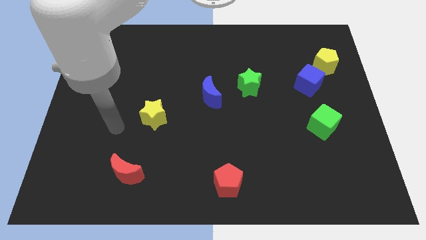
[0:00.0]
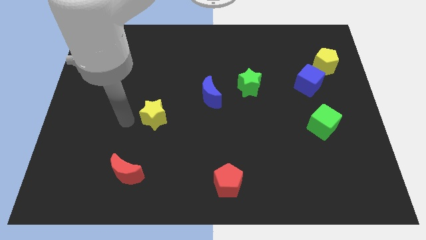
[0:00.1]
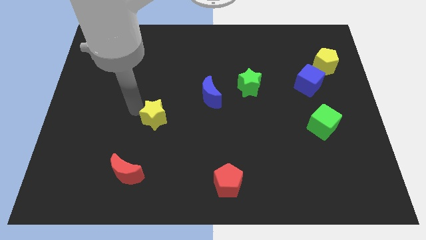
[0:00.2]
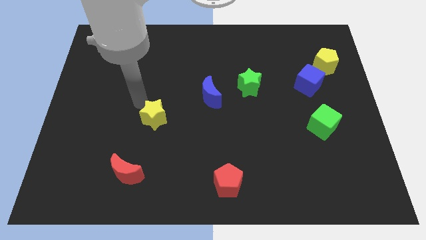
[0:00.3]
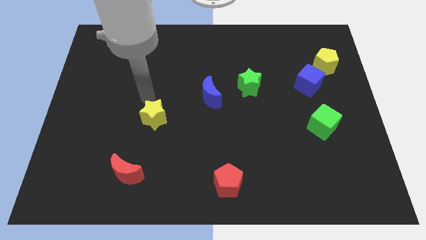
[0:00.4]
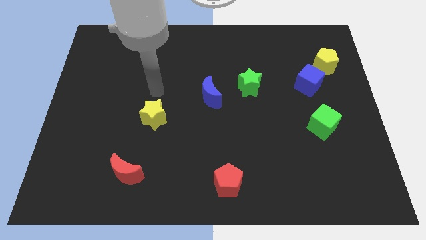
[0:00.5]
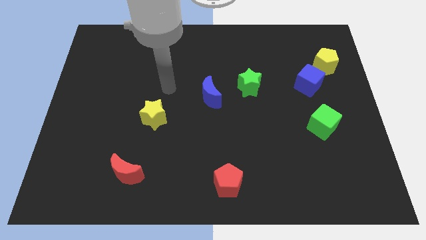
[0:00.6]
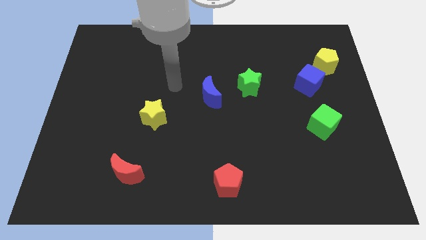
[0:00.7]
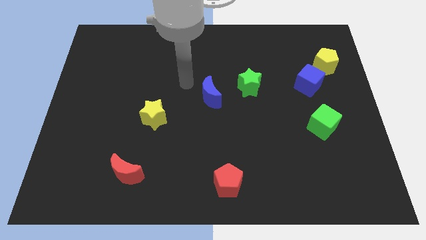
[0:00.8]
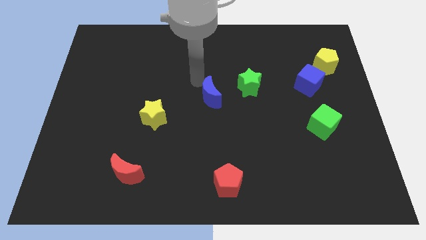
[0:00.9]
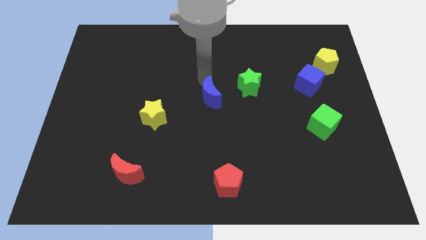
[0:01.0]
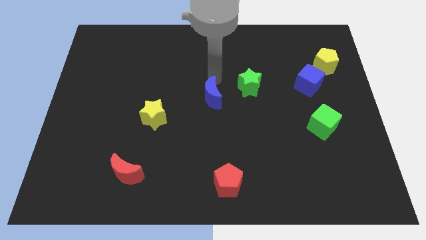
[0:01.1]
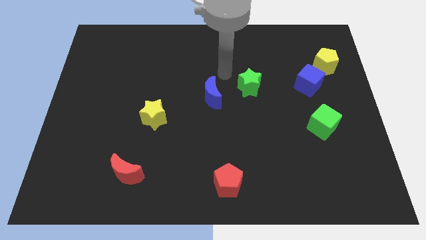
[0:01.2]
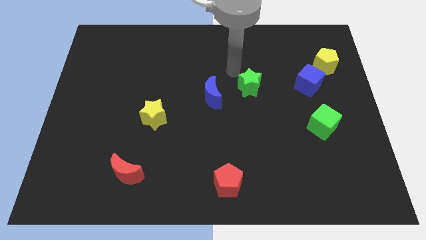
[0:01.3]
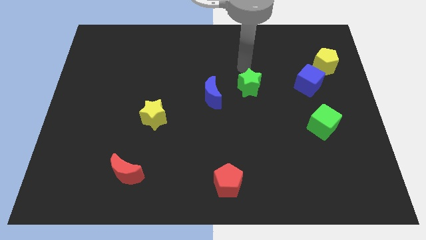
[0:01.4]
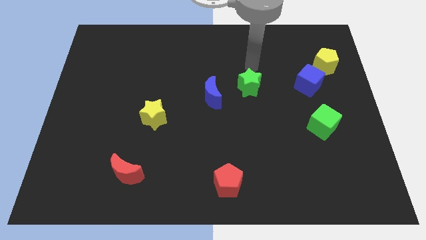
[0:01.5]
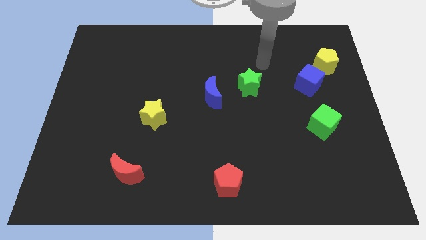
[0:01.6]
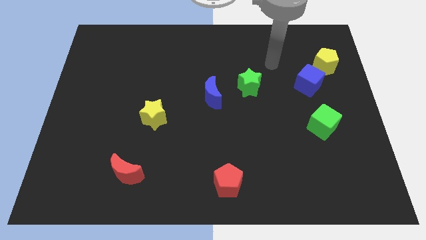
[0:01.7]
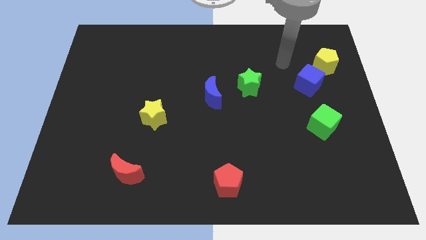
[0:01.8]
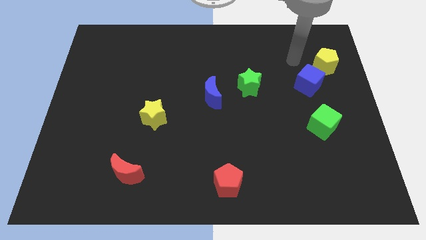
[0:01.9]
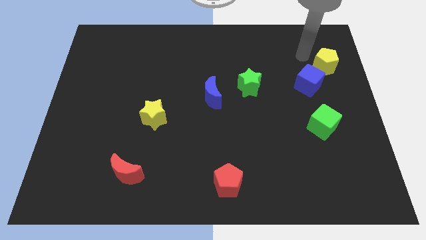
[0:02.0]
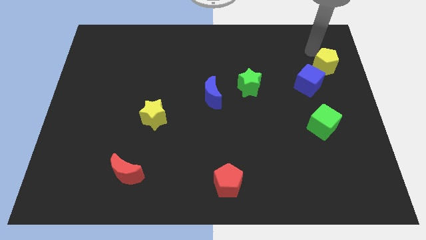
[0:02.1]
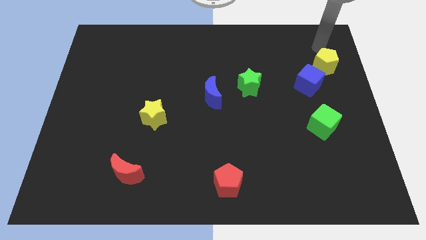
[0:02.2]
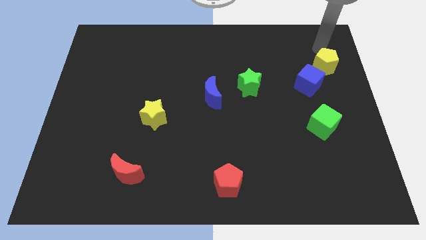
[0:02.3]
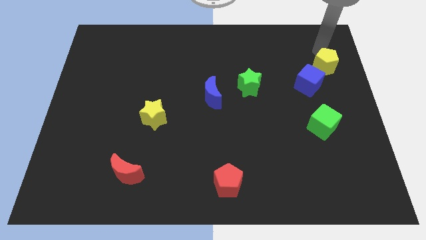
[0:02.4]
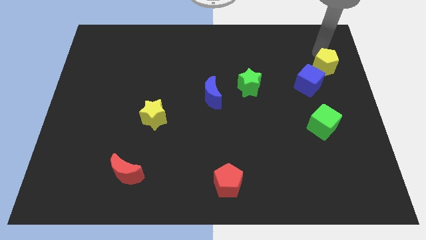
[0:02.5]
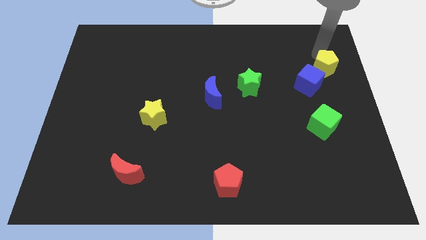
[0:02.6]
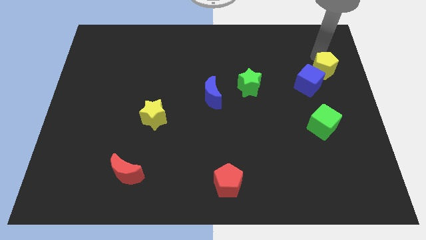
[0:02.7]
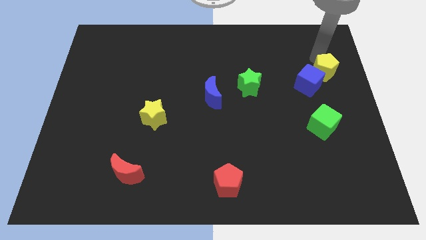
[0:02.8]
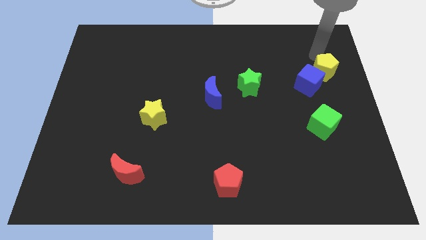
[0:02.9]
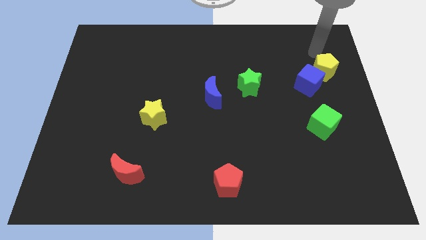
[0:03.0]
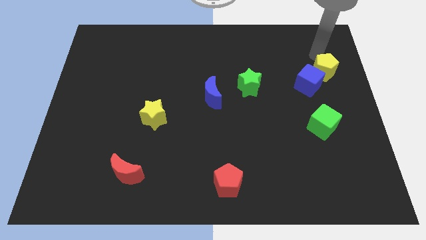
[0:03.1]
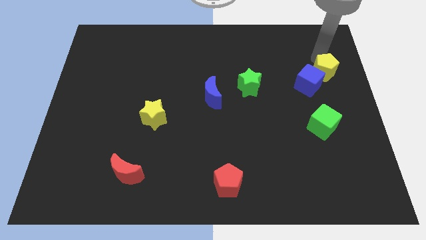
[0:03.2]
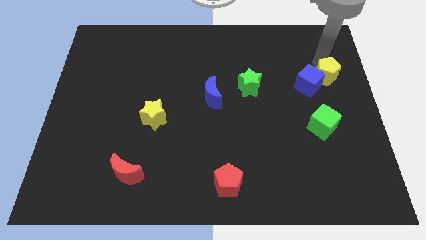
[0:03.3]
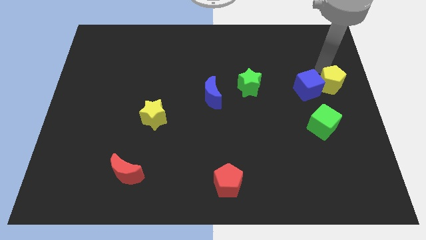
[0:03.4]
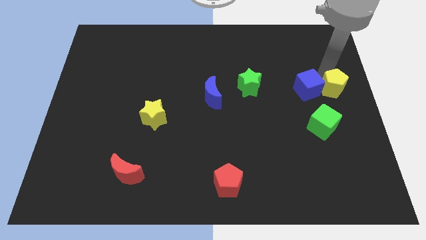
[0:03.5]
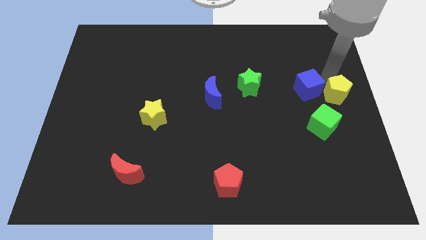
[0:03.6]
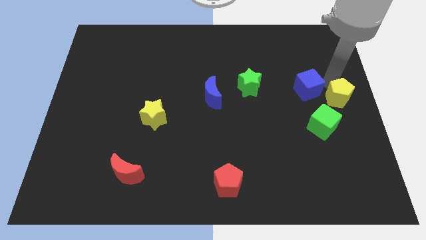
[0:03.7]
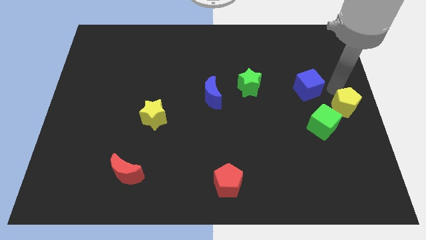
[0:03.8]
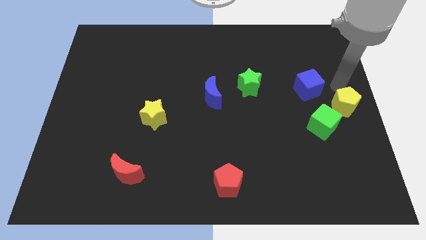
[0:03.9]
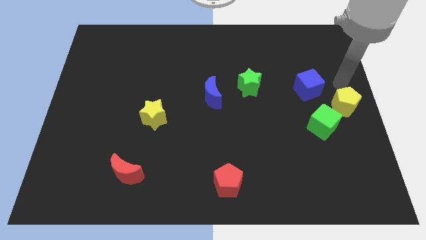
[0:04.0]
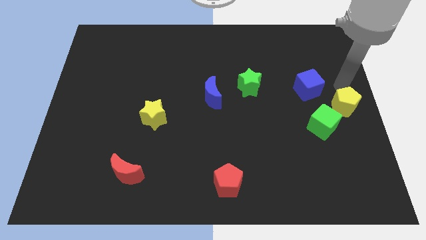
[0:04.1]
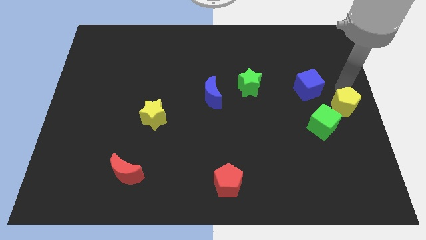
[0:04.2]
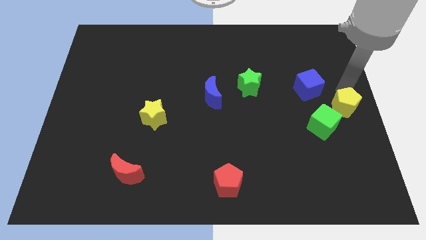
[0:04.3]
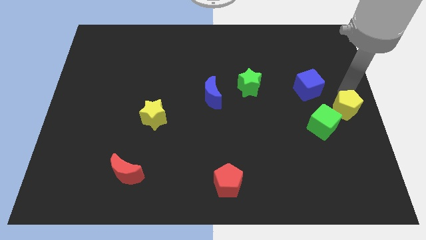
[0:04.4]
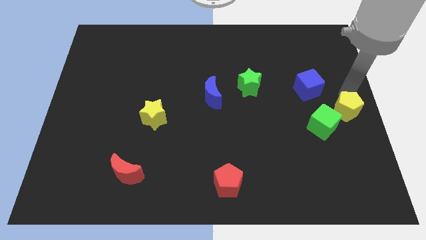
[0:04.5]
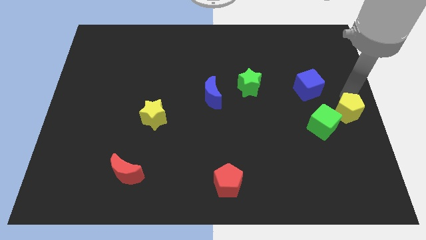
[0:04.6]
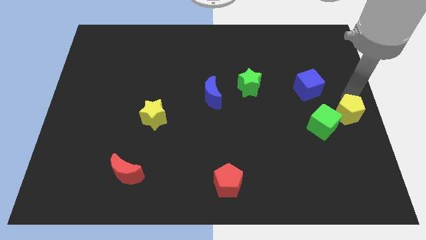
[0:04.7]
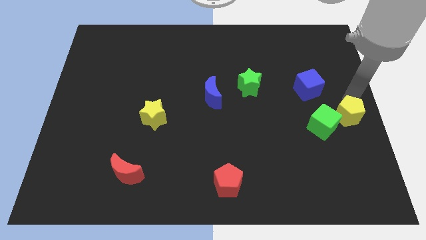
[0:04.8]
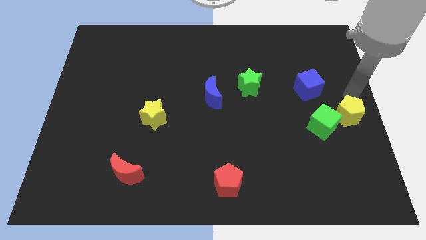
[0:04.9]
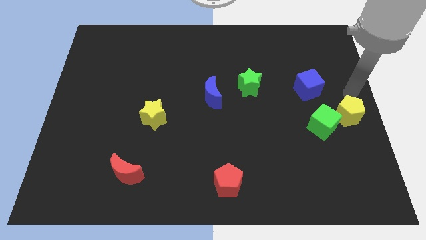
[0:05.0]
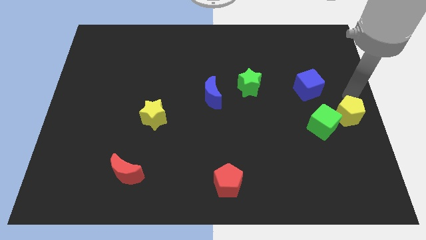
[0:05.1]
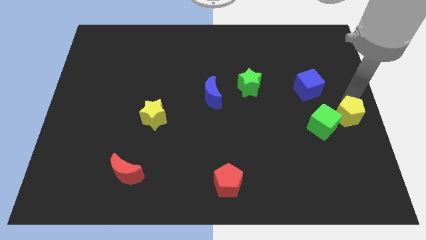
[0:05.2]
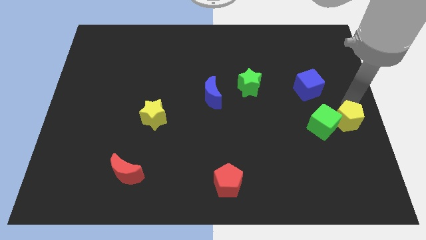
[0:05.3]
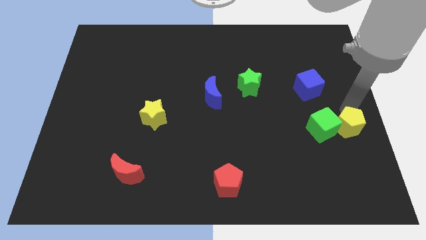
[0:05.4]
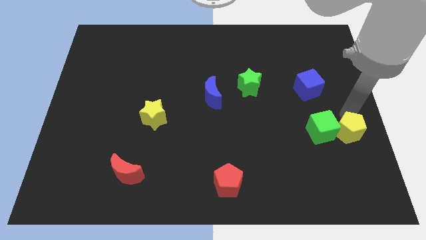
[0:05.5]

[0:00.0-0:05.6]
push the yellow pentagon downwards

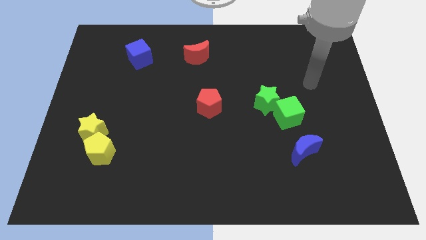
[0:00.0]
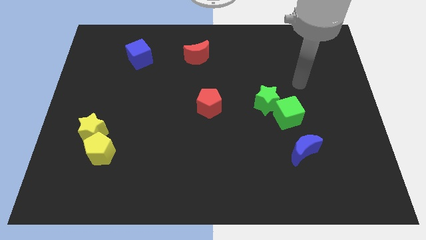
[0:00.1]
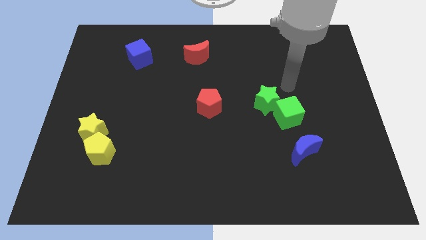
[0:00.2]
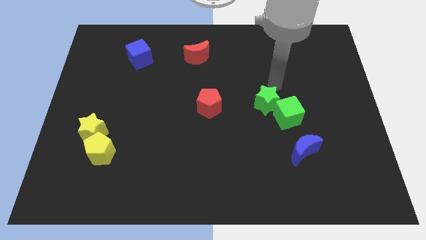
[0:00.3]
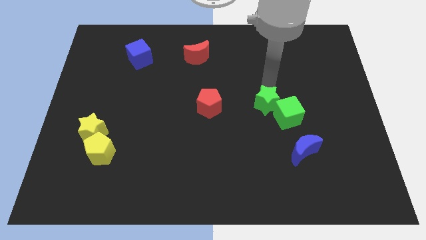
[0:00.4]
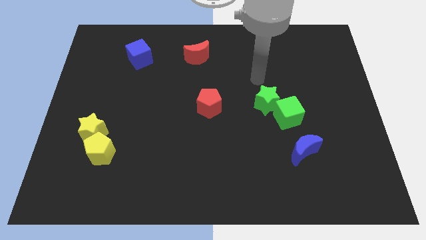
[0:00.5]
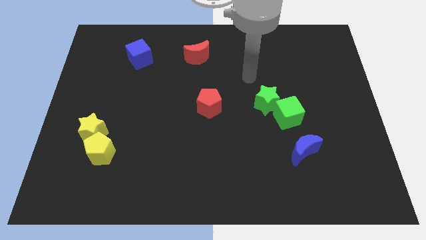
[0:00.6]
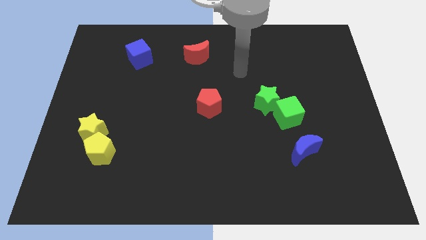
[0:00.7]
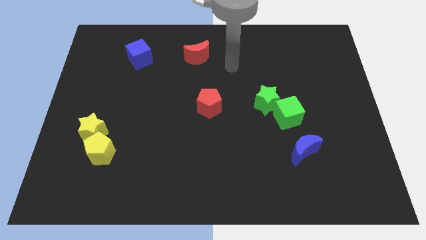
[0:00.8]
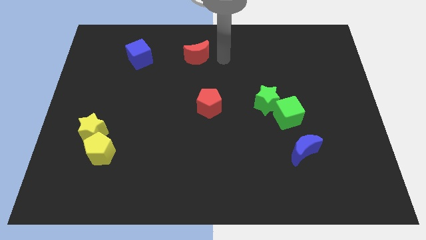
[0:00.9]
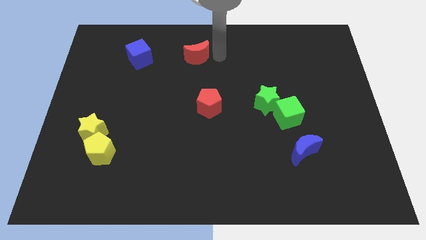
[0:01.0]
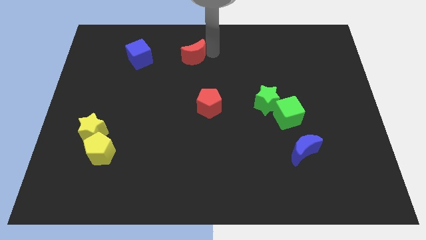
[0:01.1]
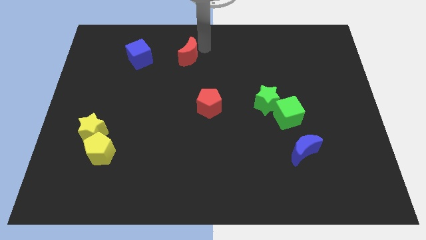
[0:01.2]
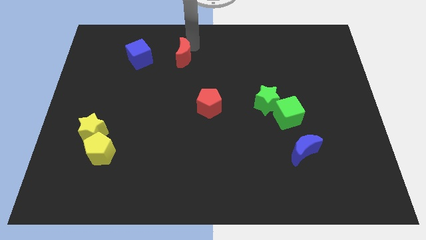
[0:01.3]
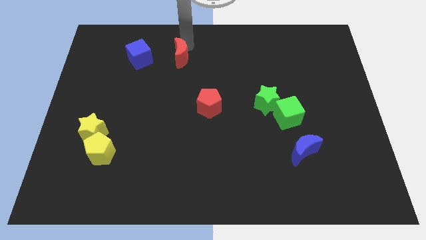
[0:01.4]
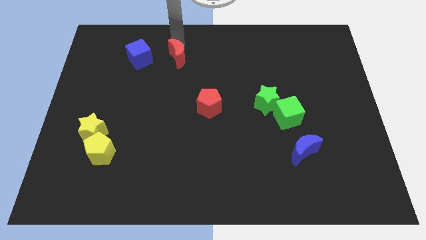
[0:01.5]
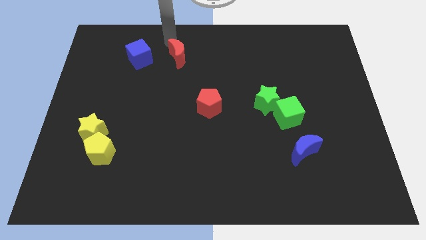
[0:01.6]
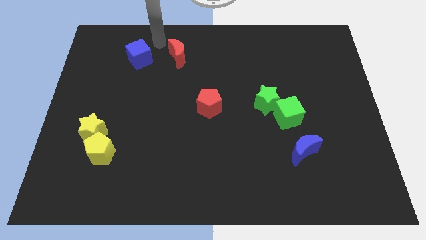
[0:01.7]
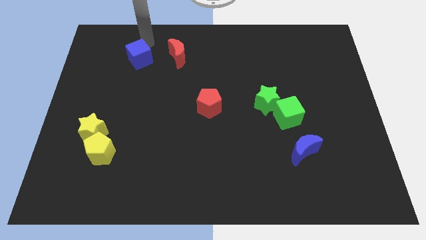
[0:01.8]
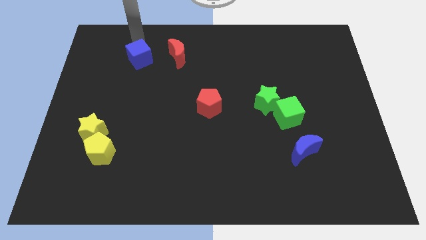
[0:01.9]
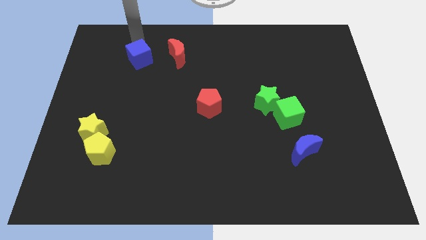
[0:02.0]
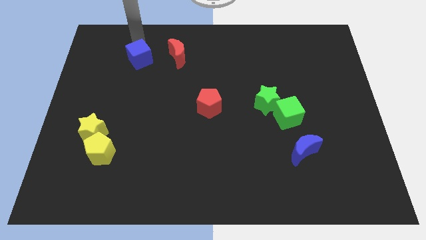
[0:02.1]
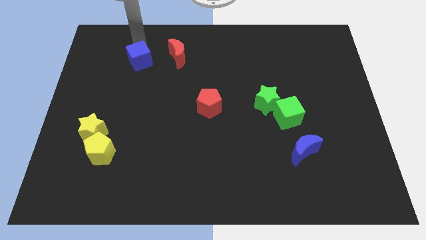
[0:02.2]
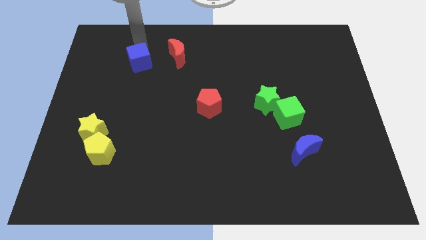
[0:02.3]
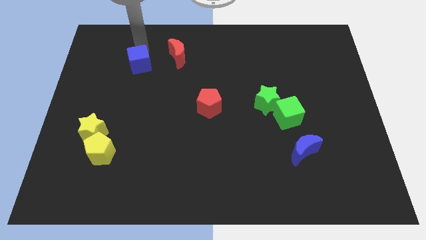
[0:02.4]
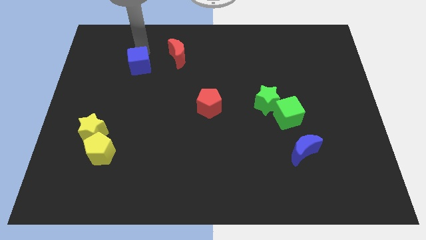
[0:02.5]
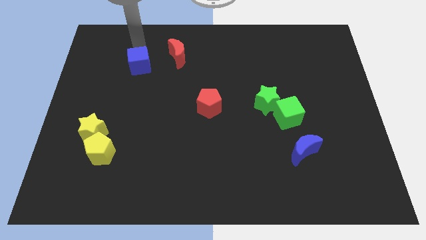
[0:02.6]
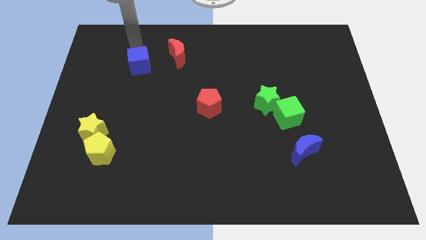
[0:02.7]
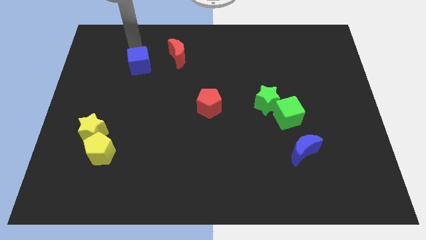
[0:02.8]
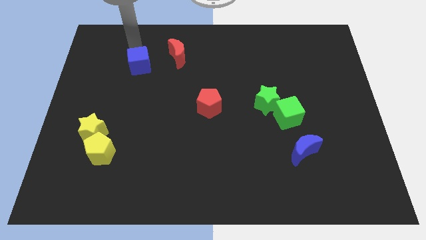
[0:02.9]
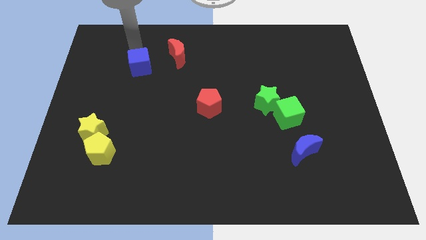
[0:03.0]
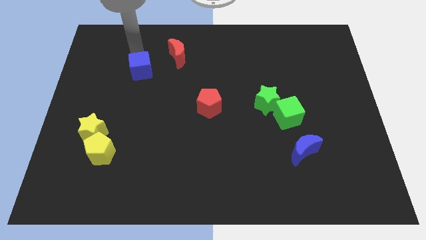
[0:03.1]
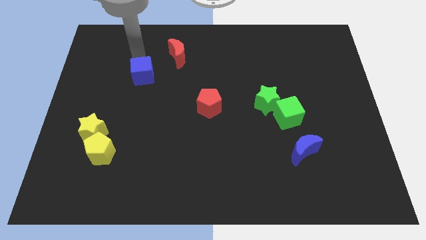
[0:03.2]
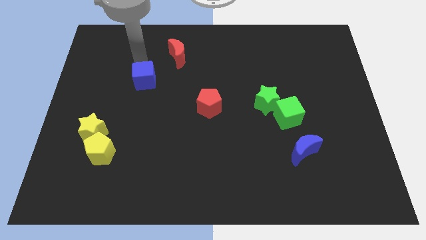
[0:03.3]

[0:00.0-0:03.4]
slightly move the blue cube down
